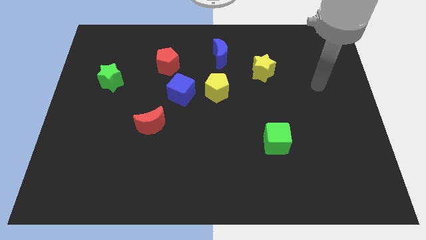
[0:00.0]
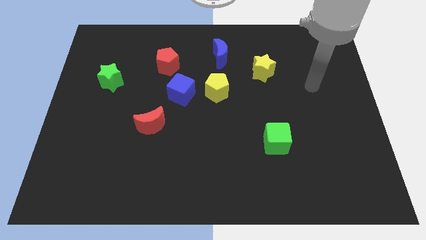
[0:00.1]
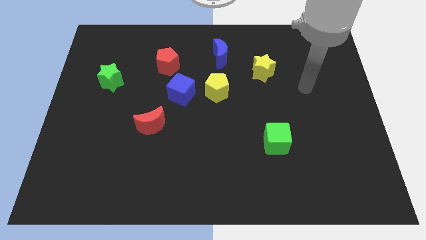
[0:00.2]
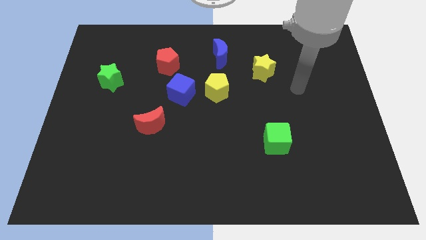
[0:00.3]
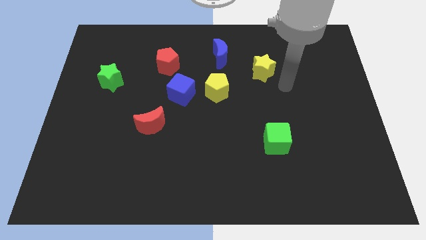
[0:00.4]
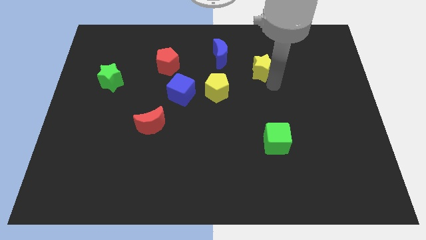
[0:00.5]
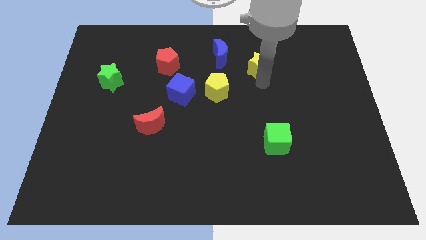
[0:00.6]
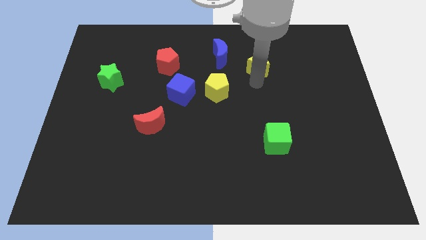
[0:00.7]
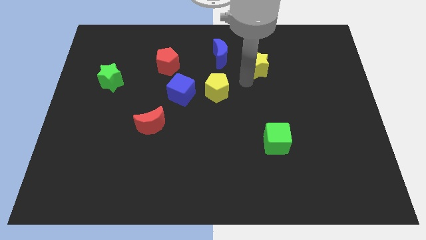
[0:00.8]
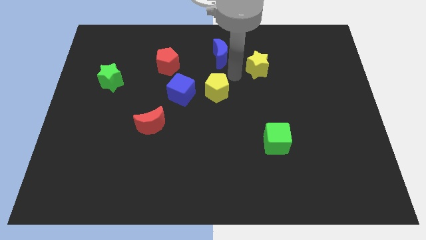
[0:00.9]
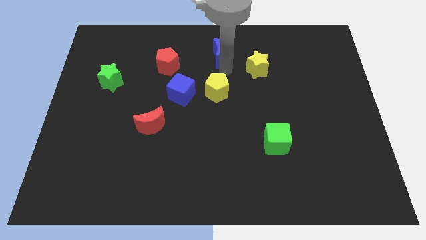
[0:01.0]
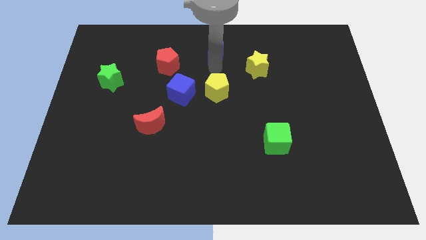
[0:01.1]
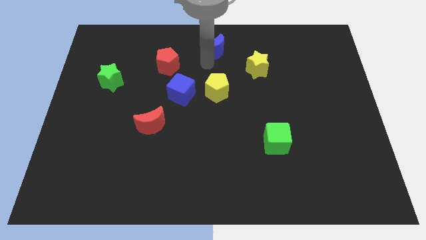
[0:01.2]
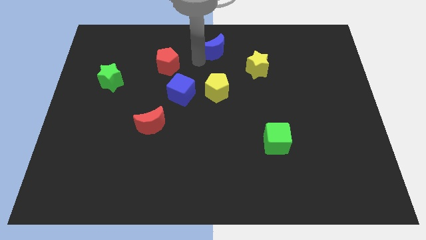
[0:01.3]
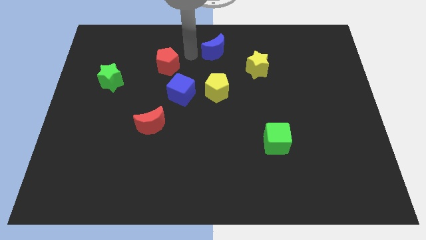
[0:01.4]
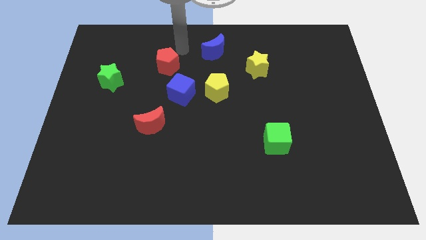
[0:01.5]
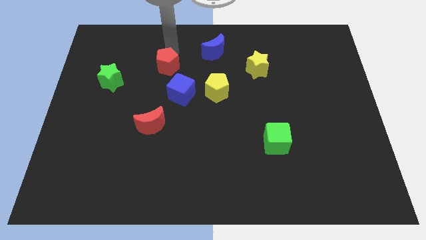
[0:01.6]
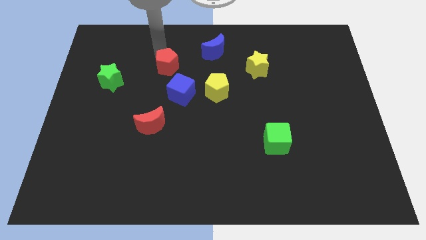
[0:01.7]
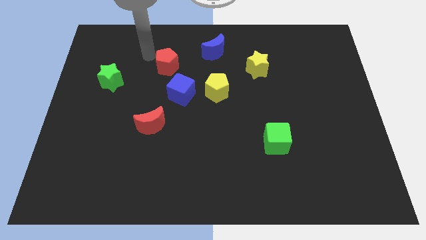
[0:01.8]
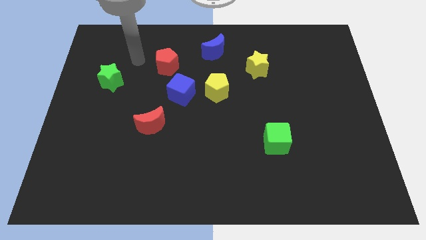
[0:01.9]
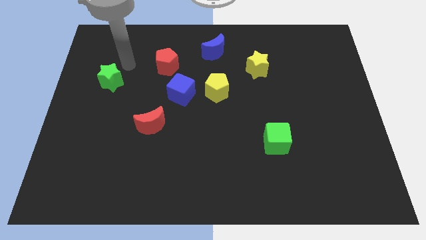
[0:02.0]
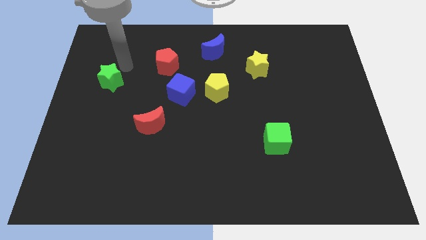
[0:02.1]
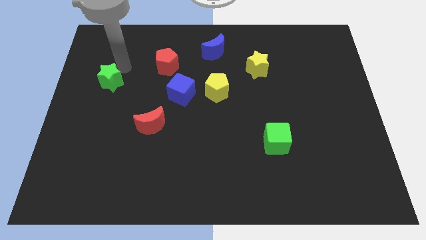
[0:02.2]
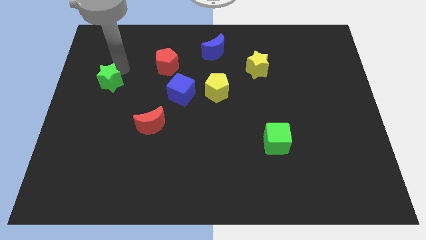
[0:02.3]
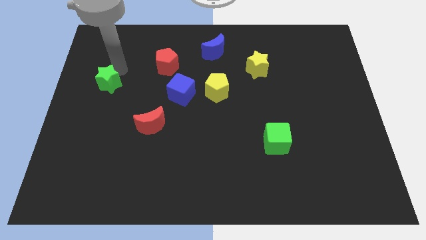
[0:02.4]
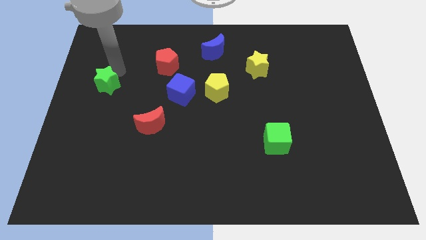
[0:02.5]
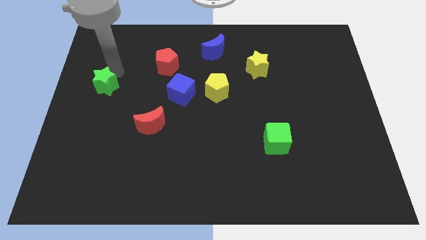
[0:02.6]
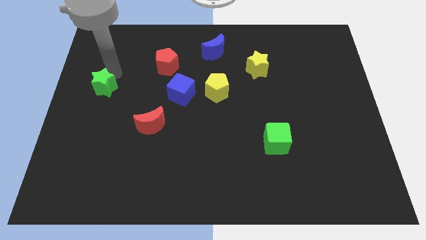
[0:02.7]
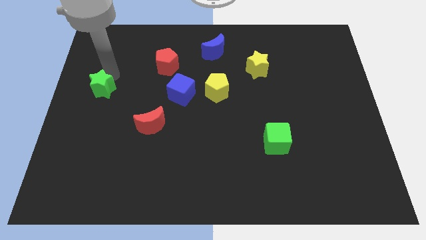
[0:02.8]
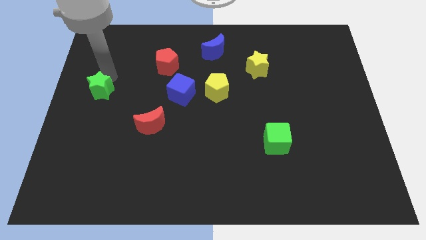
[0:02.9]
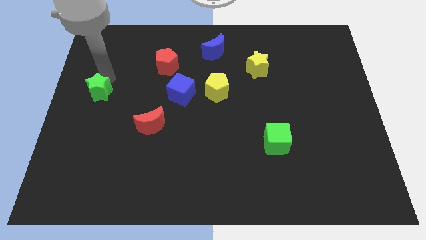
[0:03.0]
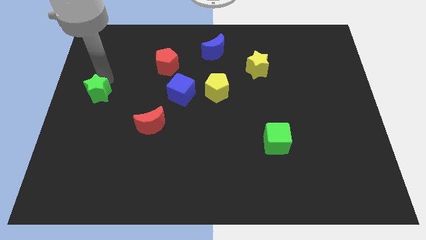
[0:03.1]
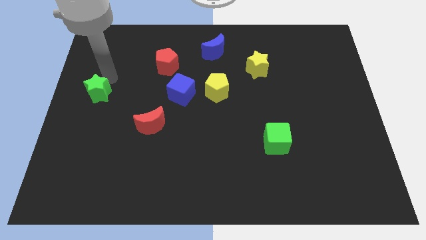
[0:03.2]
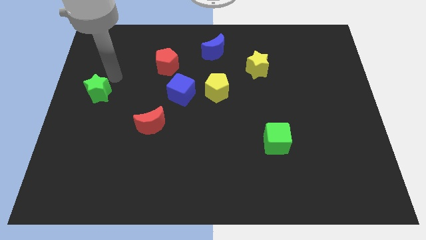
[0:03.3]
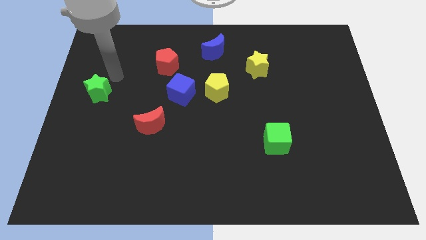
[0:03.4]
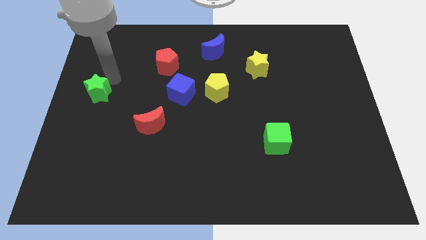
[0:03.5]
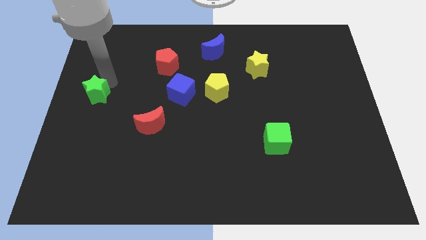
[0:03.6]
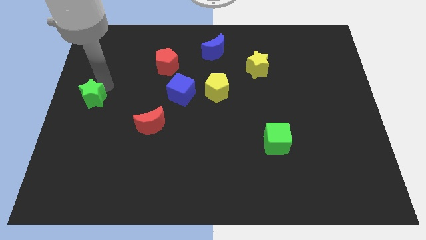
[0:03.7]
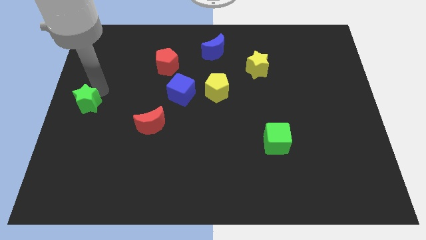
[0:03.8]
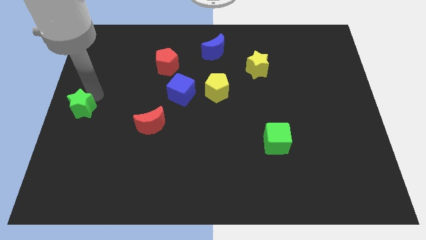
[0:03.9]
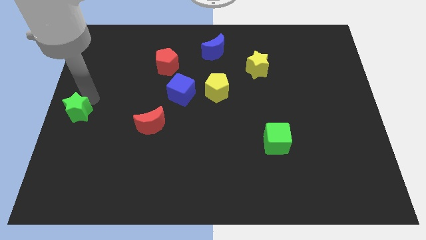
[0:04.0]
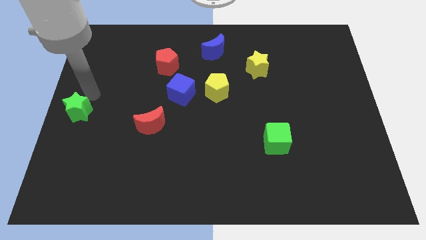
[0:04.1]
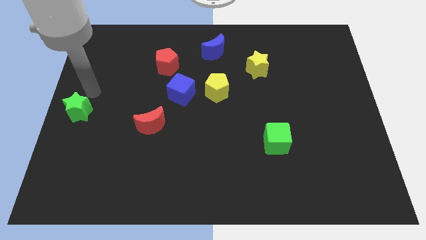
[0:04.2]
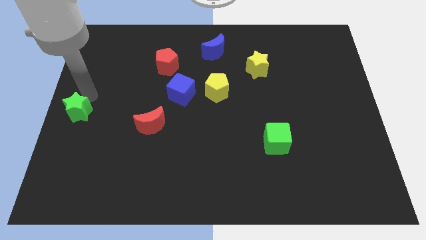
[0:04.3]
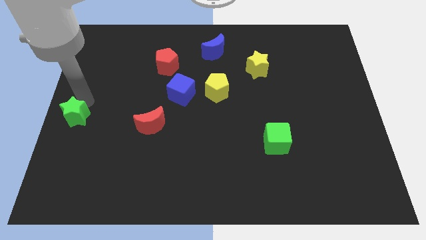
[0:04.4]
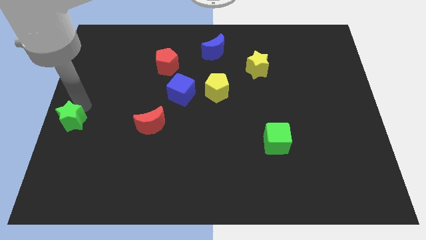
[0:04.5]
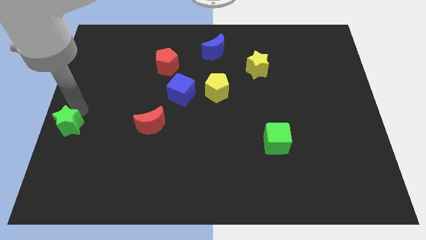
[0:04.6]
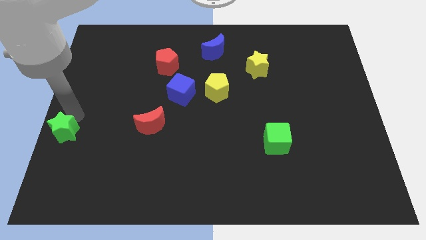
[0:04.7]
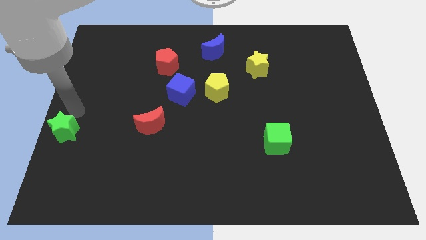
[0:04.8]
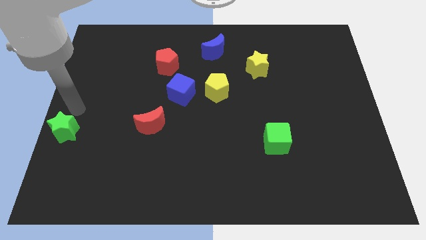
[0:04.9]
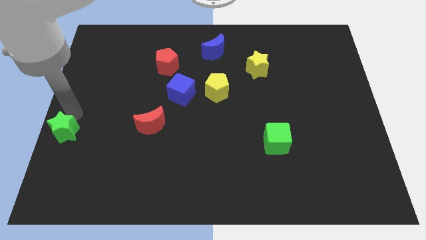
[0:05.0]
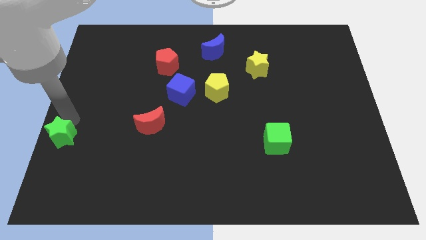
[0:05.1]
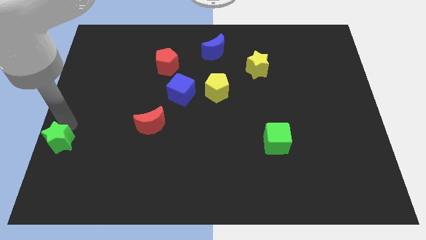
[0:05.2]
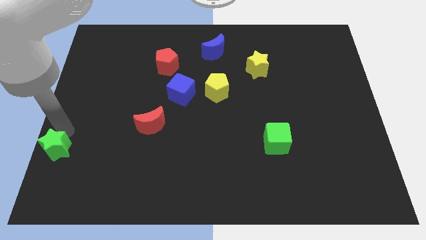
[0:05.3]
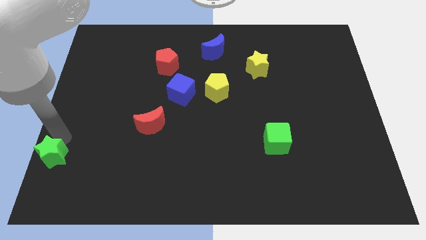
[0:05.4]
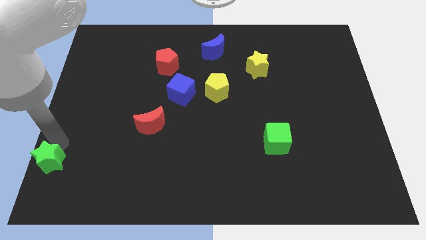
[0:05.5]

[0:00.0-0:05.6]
slide the green star to the lower left corner

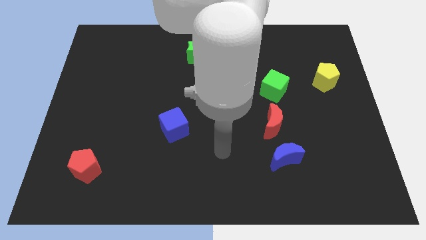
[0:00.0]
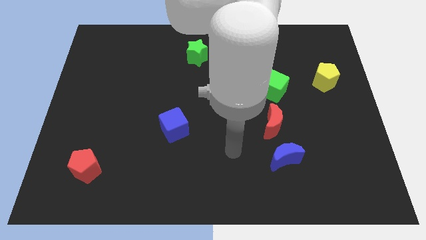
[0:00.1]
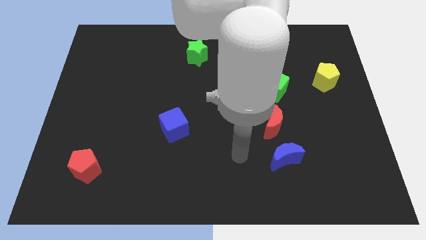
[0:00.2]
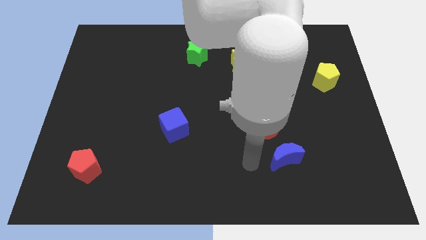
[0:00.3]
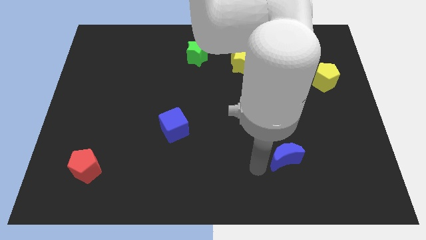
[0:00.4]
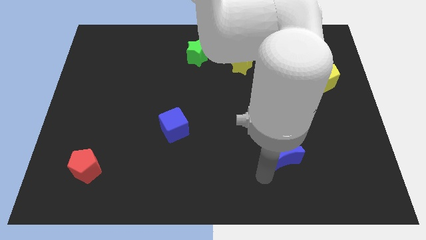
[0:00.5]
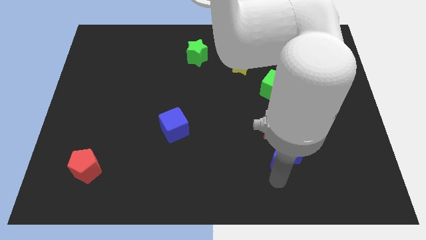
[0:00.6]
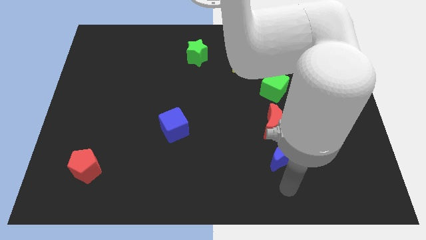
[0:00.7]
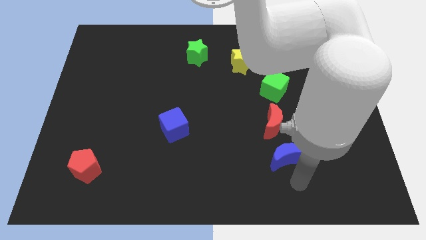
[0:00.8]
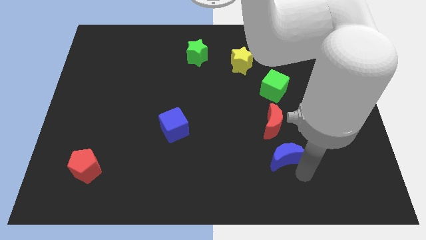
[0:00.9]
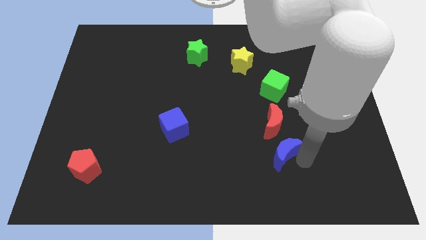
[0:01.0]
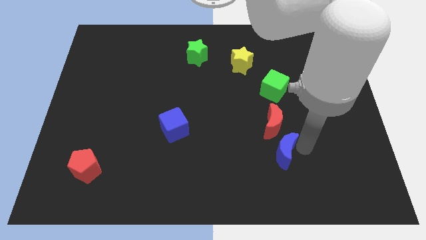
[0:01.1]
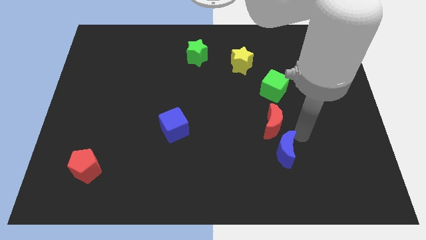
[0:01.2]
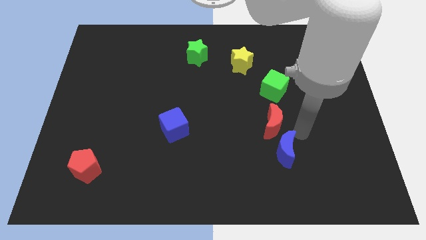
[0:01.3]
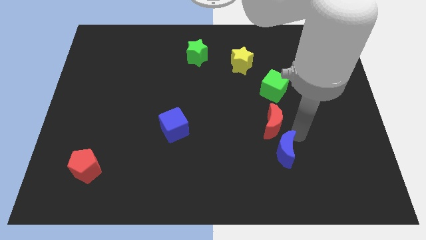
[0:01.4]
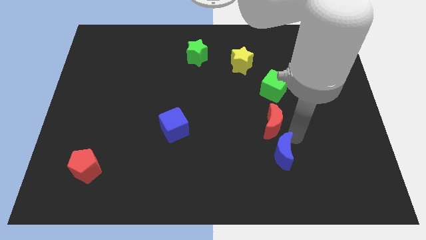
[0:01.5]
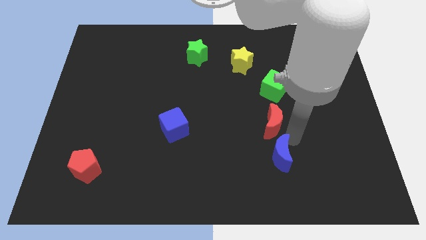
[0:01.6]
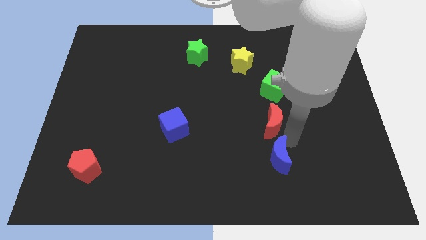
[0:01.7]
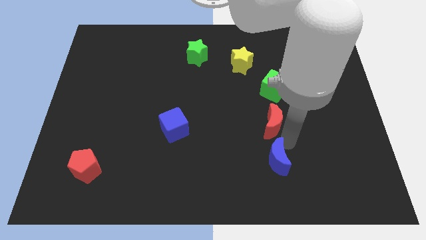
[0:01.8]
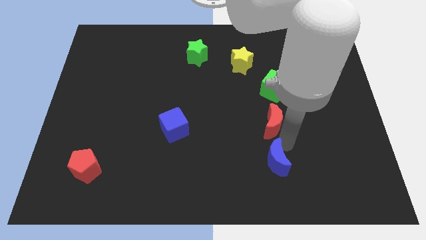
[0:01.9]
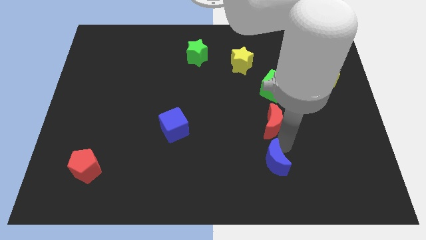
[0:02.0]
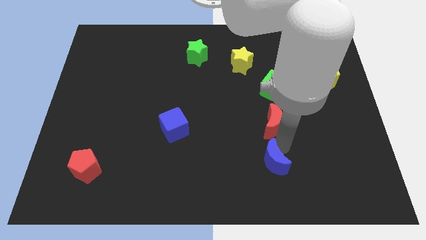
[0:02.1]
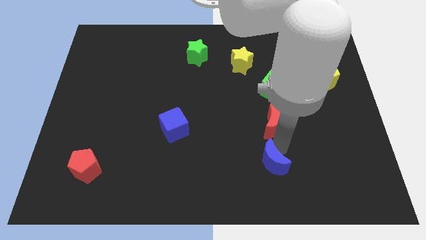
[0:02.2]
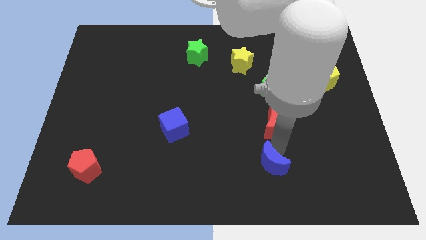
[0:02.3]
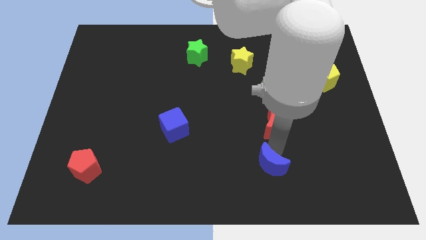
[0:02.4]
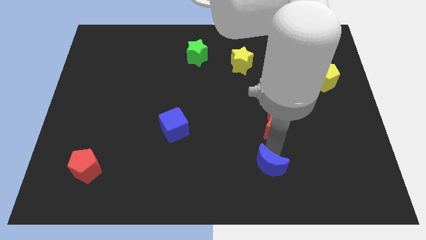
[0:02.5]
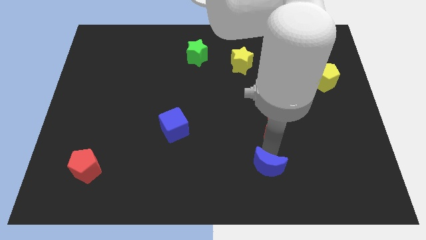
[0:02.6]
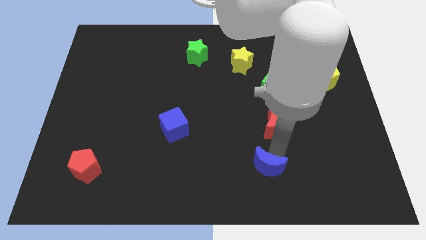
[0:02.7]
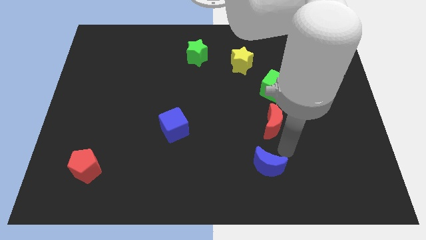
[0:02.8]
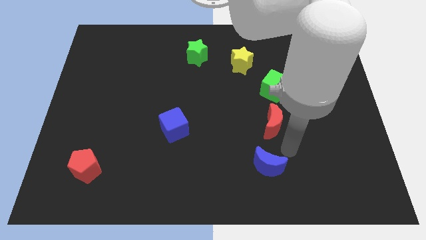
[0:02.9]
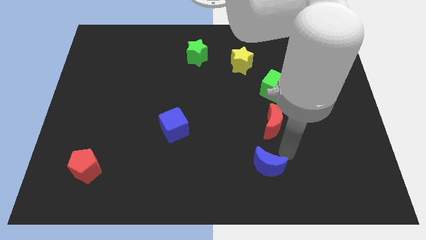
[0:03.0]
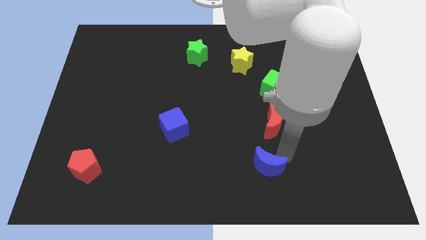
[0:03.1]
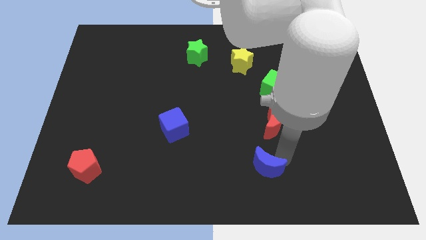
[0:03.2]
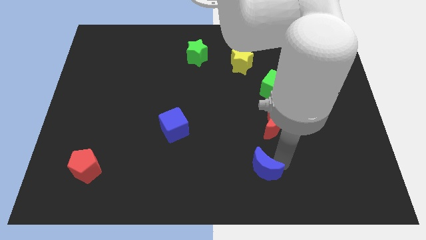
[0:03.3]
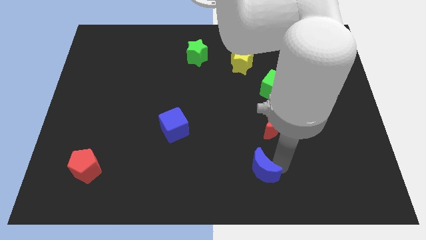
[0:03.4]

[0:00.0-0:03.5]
move the blue moon to the bottom side
